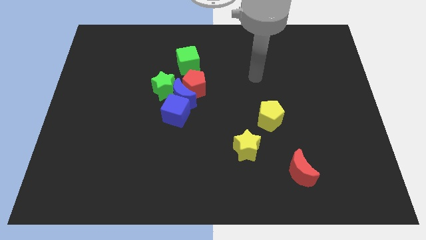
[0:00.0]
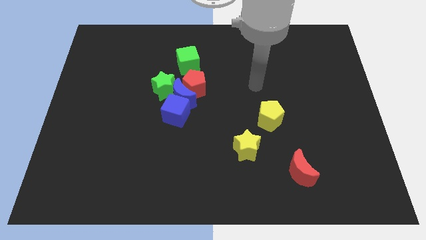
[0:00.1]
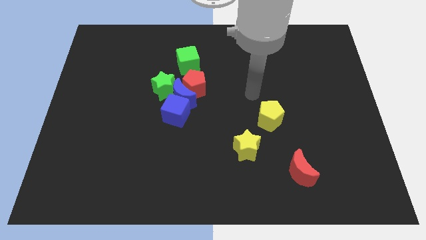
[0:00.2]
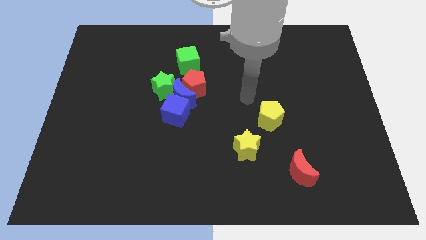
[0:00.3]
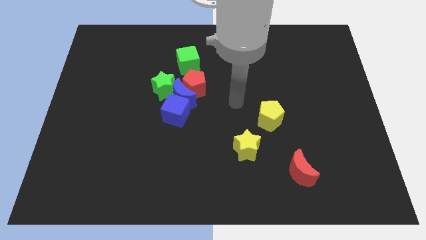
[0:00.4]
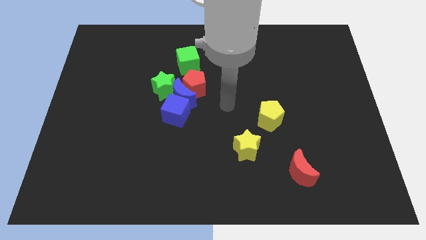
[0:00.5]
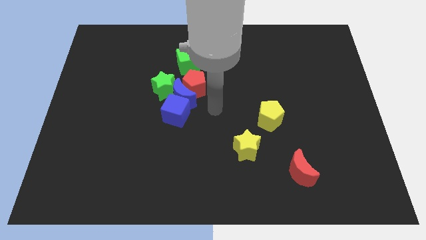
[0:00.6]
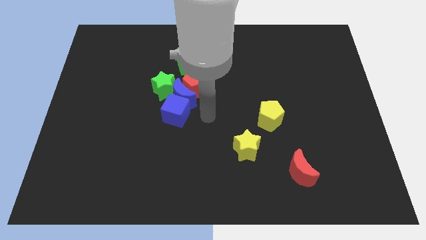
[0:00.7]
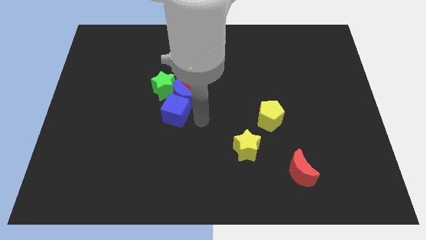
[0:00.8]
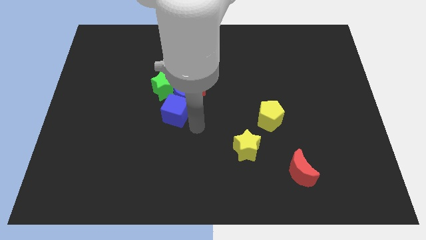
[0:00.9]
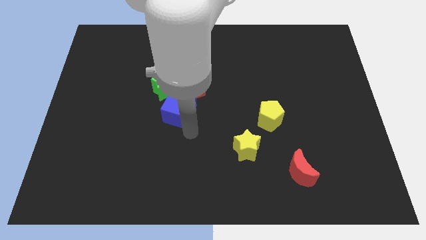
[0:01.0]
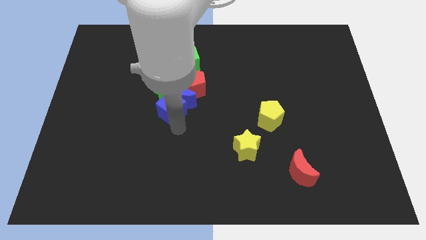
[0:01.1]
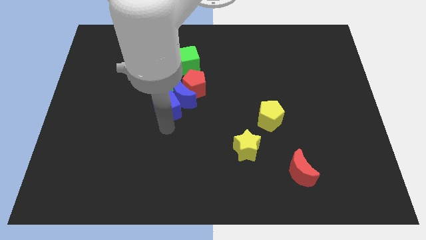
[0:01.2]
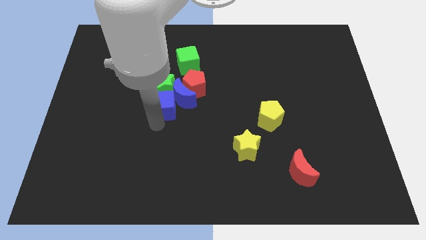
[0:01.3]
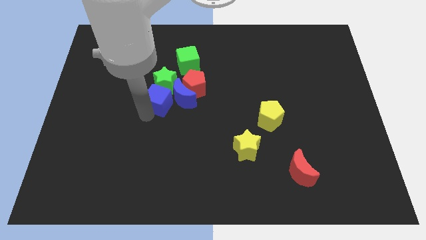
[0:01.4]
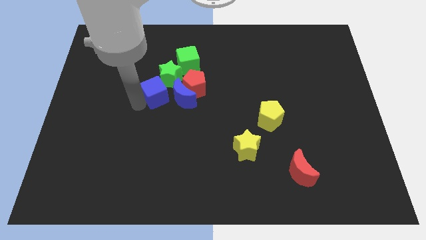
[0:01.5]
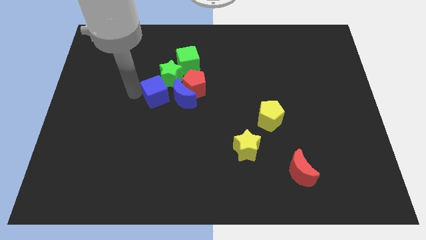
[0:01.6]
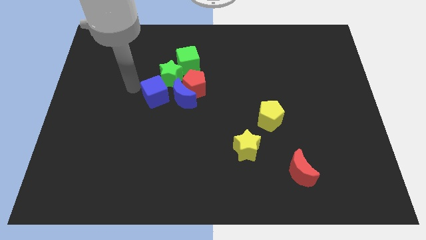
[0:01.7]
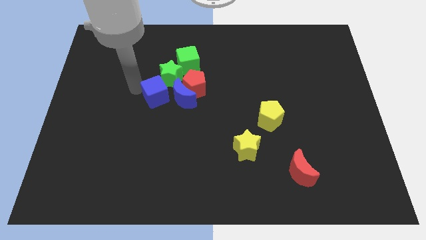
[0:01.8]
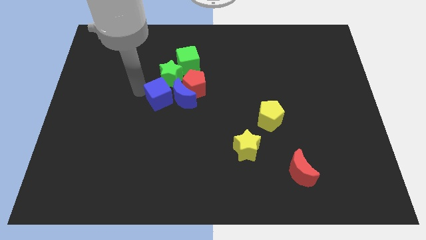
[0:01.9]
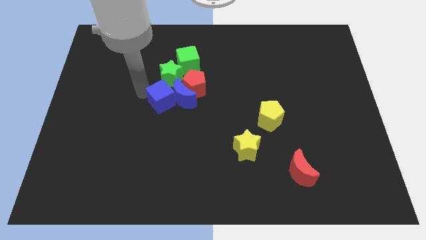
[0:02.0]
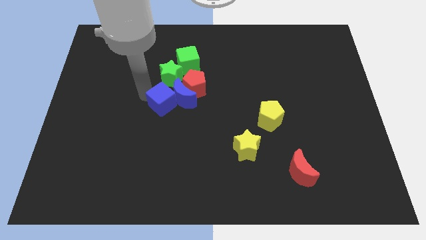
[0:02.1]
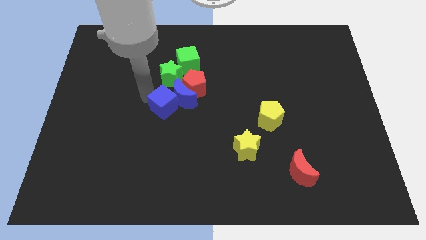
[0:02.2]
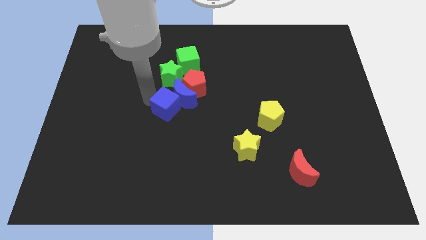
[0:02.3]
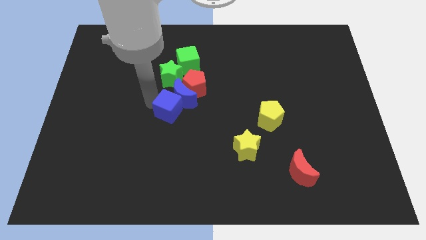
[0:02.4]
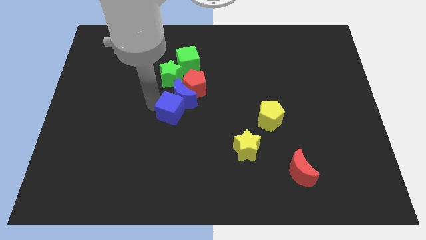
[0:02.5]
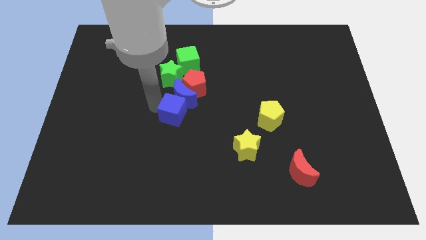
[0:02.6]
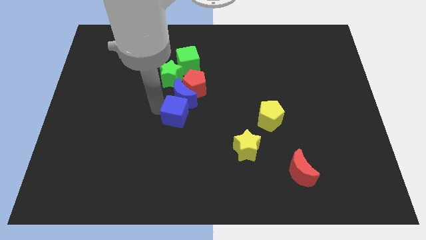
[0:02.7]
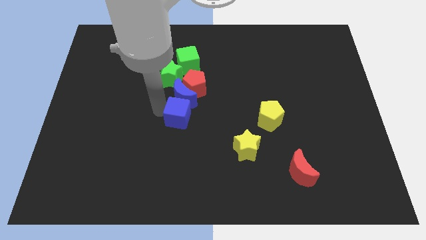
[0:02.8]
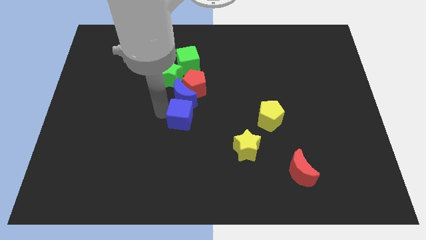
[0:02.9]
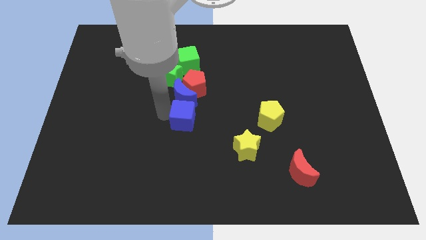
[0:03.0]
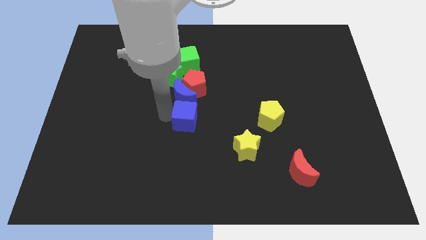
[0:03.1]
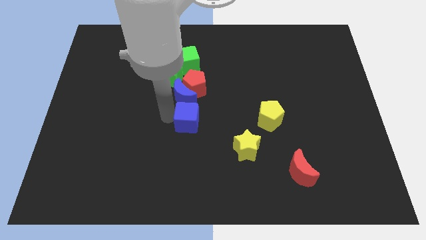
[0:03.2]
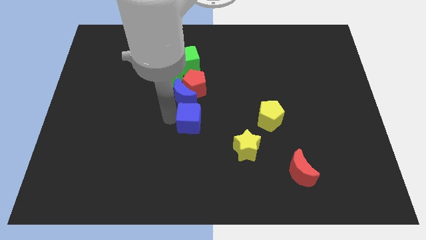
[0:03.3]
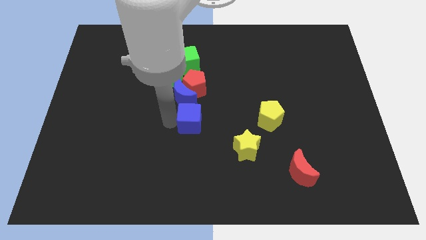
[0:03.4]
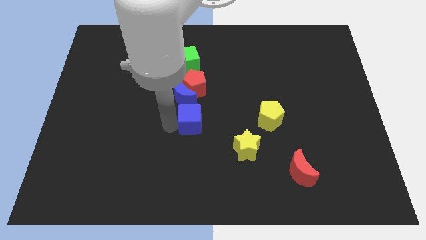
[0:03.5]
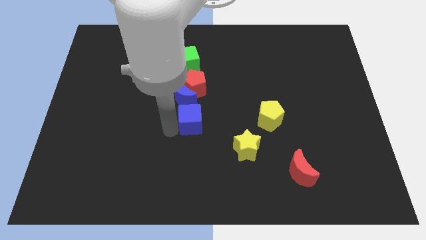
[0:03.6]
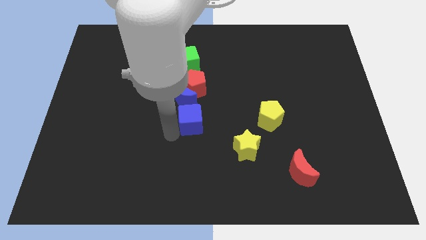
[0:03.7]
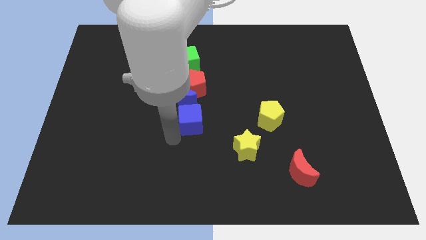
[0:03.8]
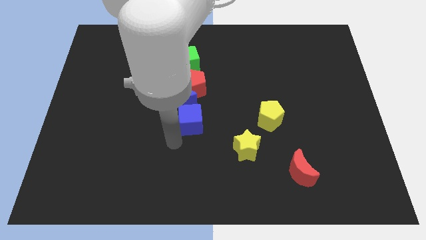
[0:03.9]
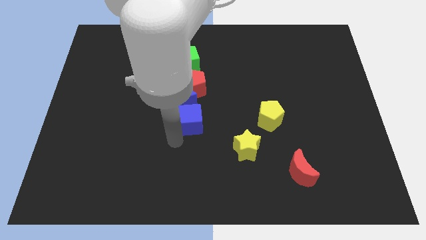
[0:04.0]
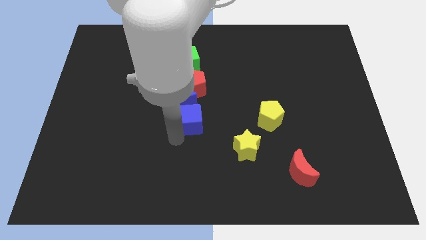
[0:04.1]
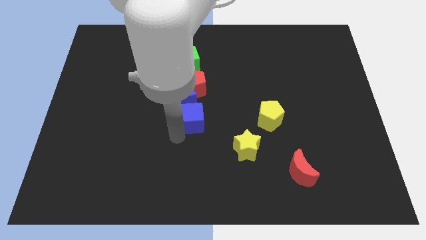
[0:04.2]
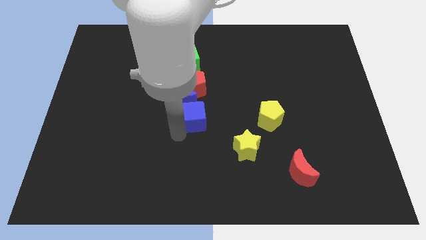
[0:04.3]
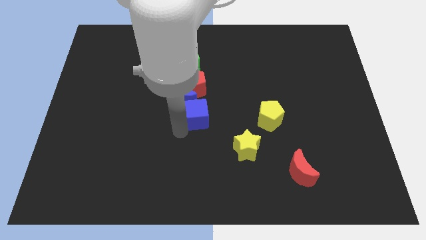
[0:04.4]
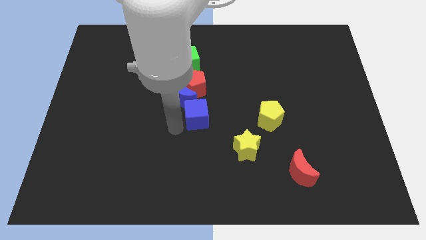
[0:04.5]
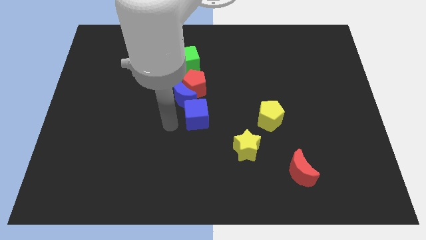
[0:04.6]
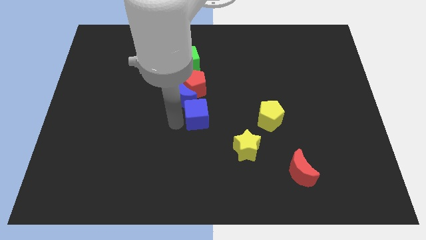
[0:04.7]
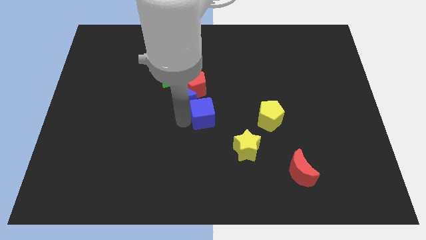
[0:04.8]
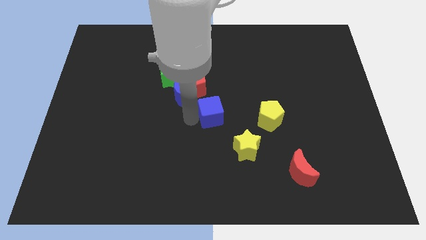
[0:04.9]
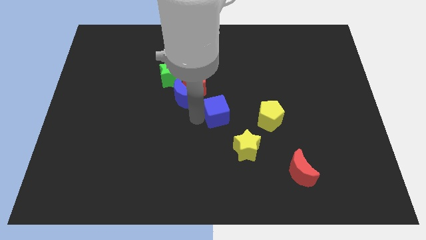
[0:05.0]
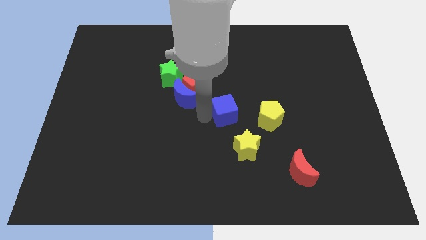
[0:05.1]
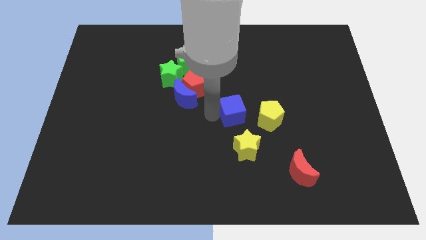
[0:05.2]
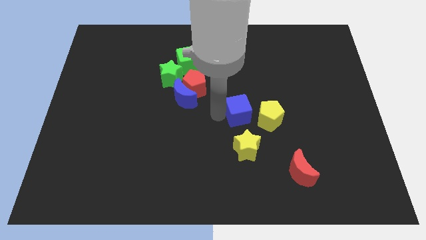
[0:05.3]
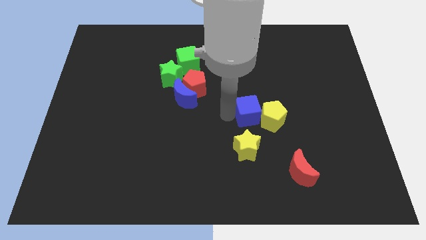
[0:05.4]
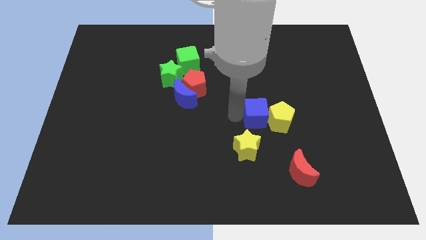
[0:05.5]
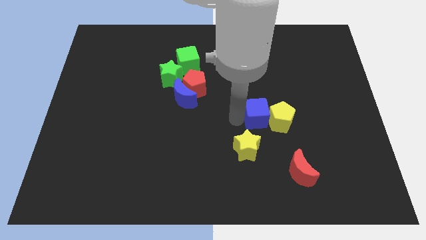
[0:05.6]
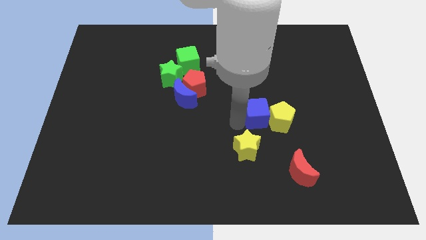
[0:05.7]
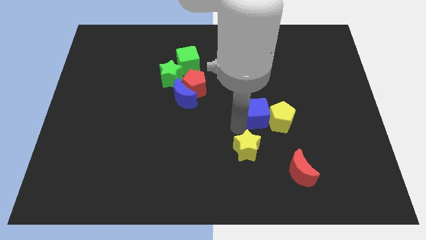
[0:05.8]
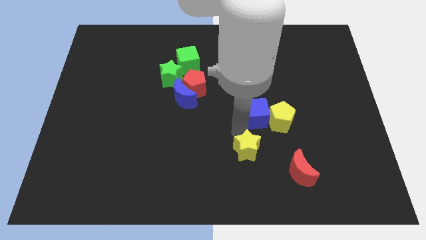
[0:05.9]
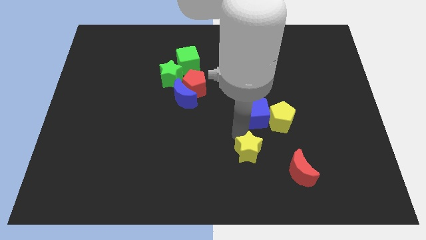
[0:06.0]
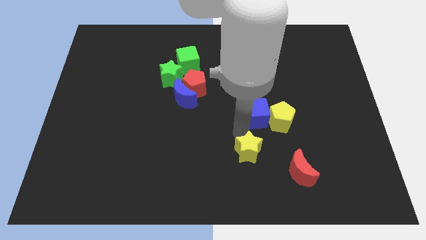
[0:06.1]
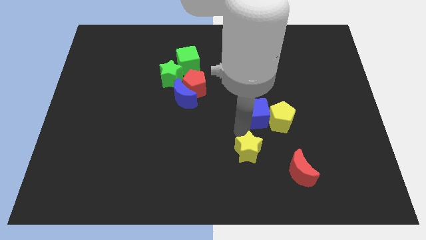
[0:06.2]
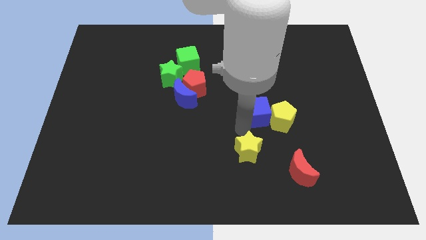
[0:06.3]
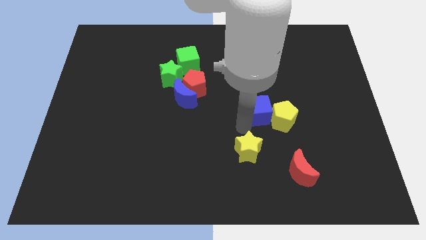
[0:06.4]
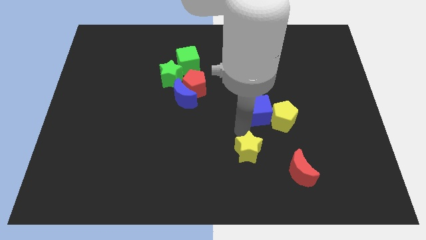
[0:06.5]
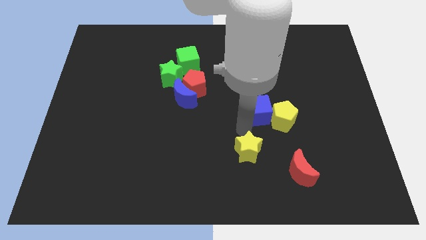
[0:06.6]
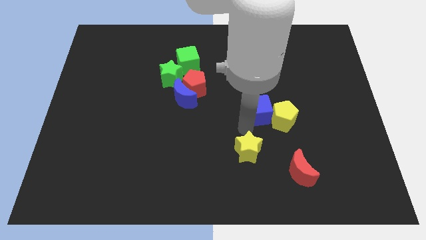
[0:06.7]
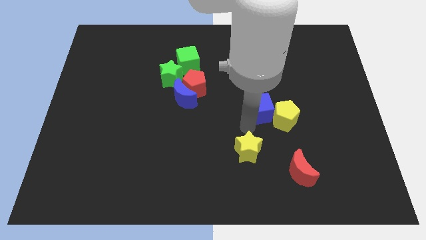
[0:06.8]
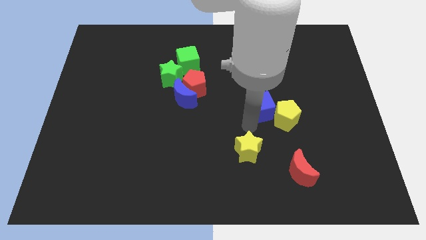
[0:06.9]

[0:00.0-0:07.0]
push the blue cube right

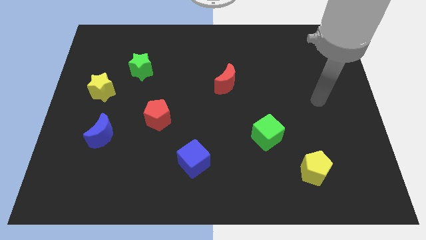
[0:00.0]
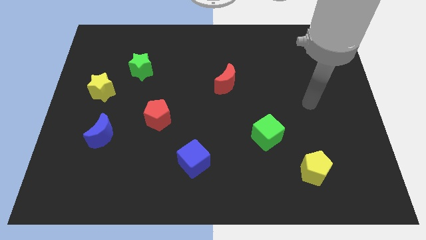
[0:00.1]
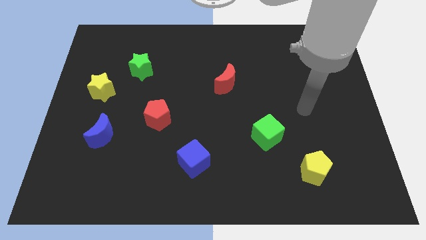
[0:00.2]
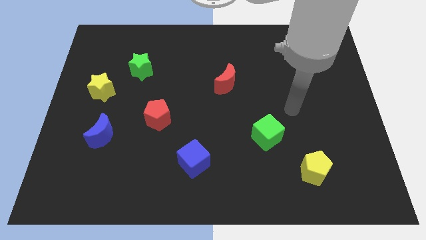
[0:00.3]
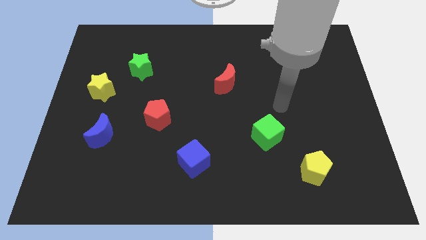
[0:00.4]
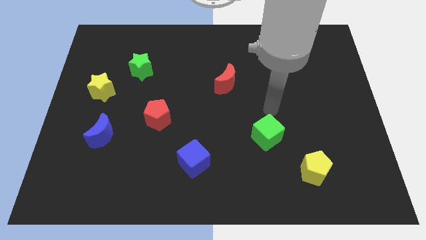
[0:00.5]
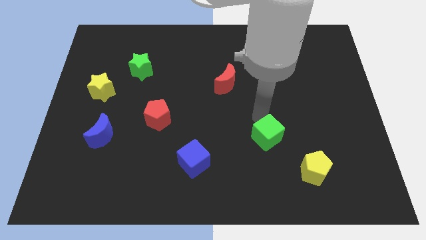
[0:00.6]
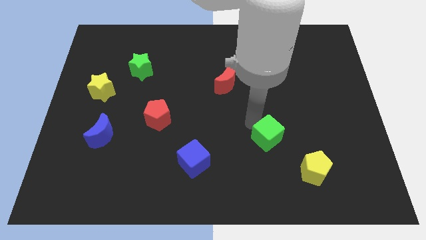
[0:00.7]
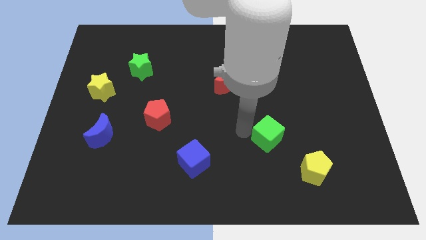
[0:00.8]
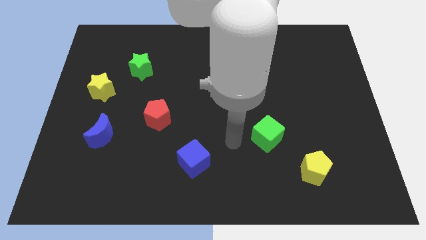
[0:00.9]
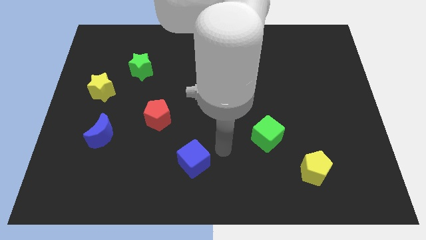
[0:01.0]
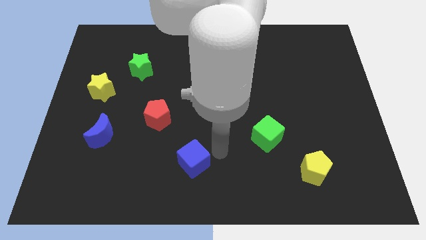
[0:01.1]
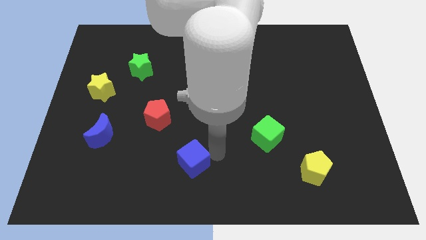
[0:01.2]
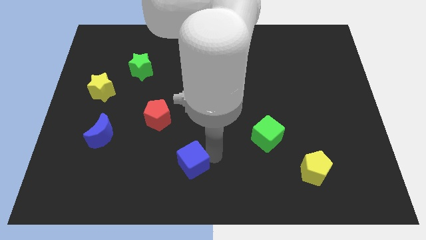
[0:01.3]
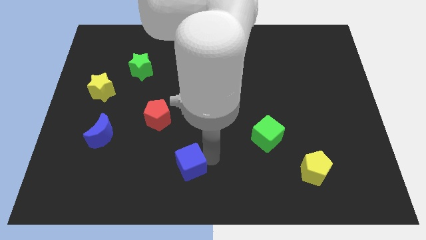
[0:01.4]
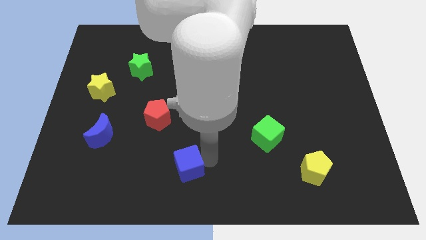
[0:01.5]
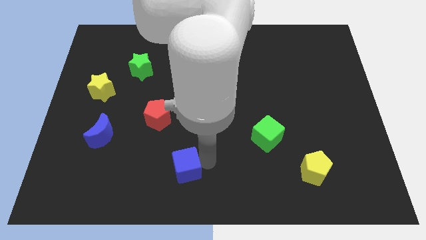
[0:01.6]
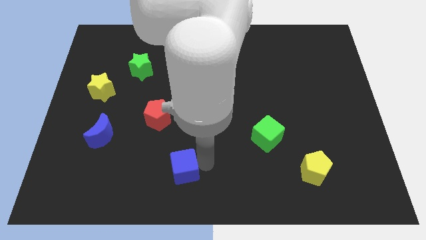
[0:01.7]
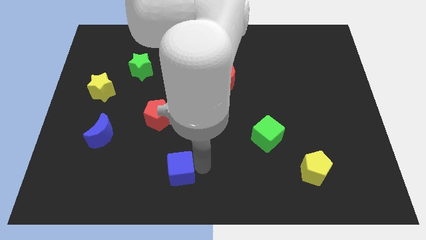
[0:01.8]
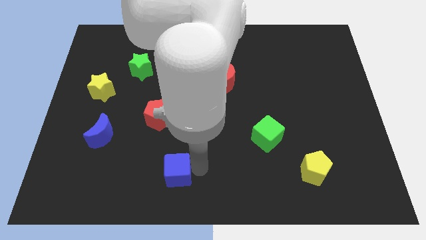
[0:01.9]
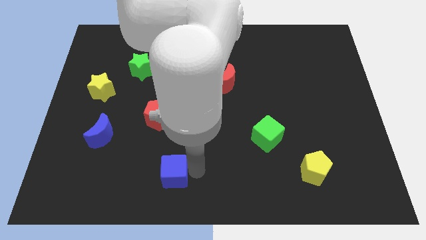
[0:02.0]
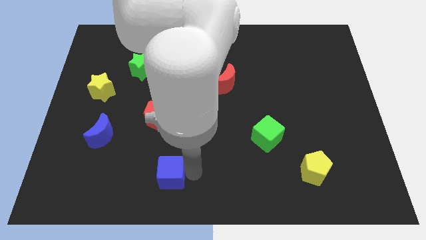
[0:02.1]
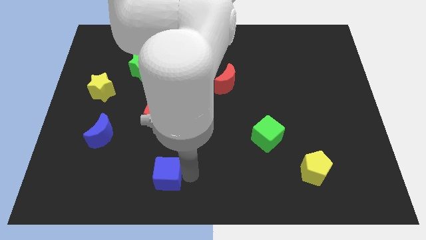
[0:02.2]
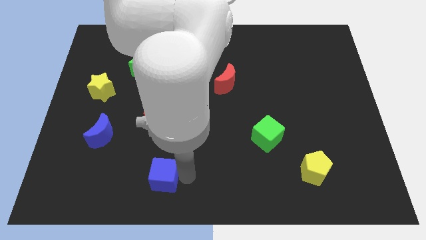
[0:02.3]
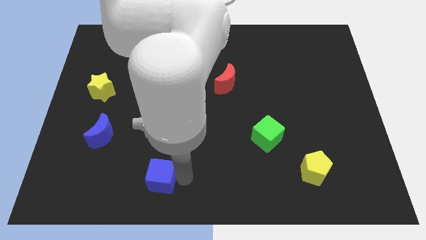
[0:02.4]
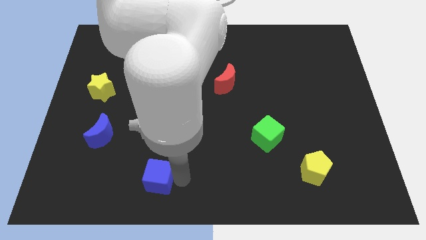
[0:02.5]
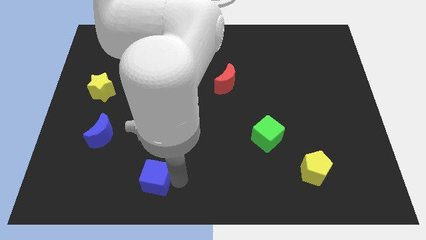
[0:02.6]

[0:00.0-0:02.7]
slide the blue cube somewhat left
